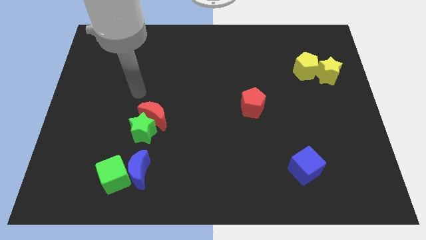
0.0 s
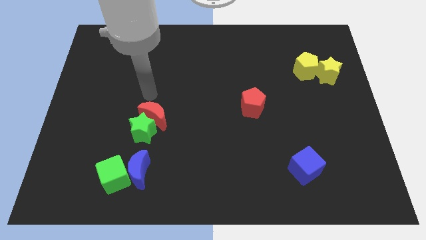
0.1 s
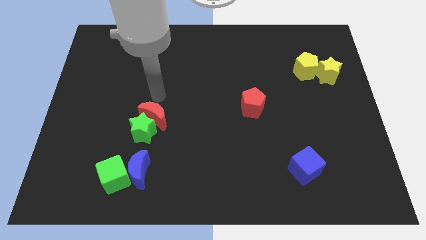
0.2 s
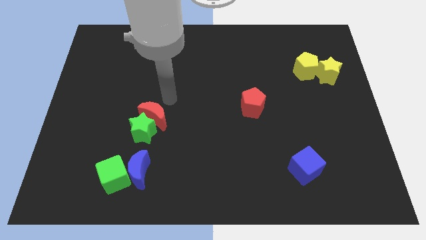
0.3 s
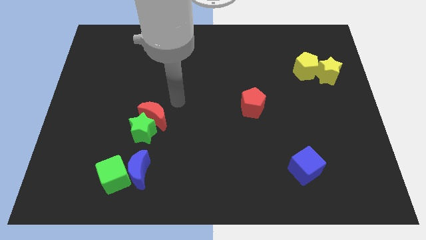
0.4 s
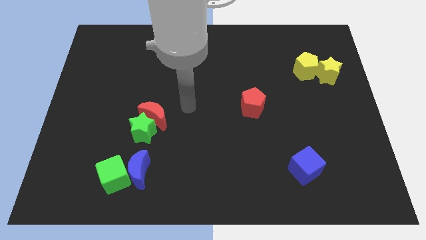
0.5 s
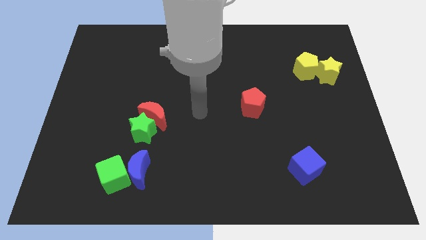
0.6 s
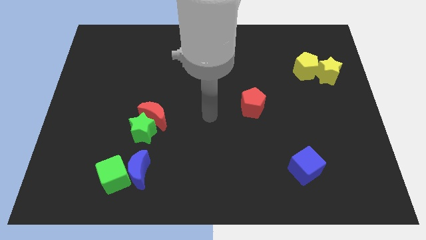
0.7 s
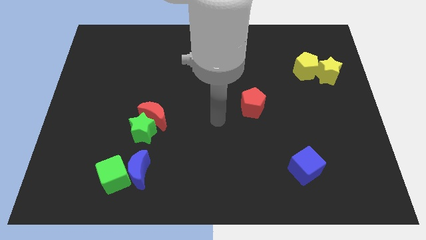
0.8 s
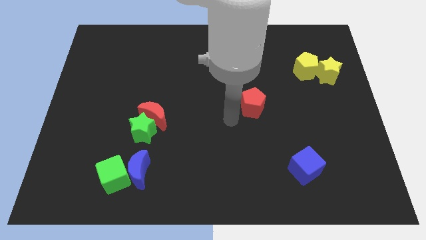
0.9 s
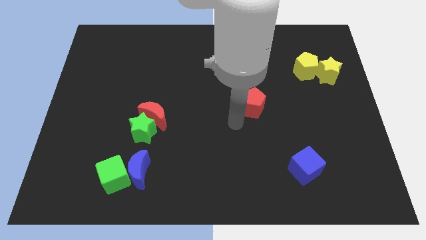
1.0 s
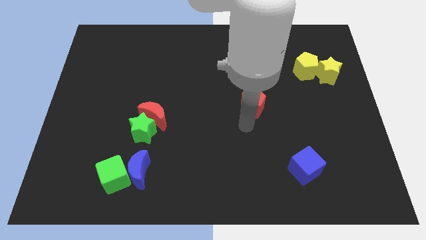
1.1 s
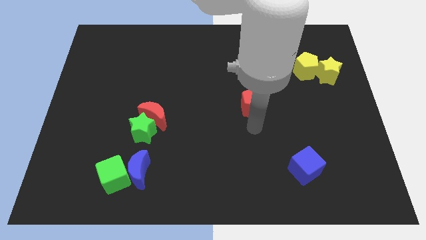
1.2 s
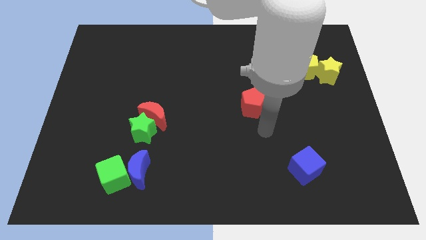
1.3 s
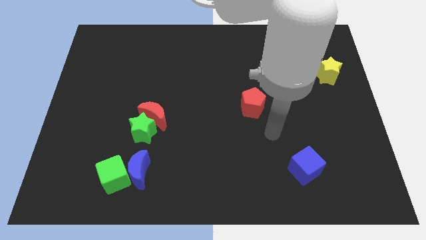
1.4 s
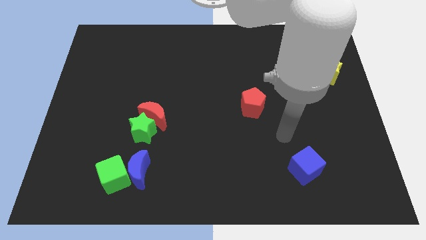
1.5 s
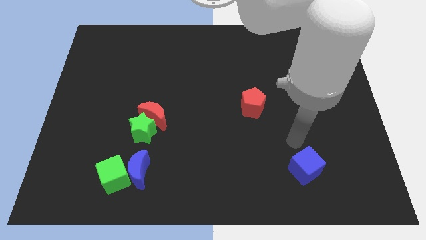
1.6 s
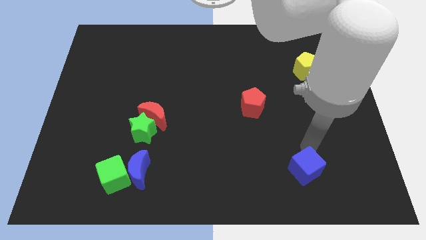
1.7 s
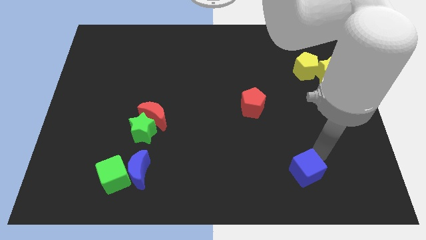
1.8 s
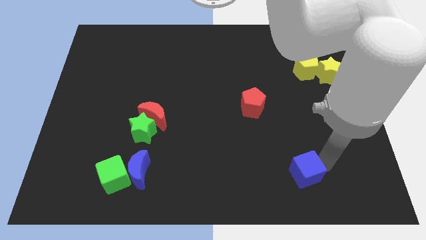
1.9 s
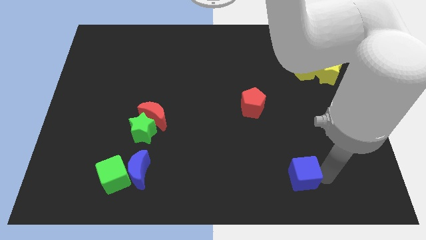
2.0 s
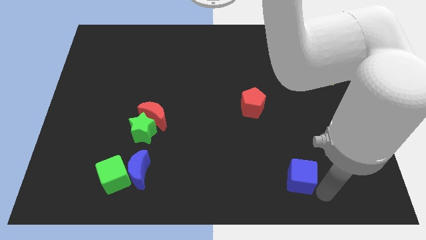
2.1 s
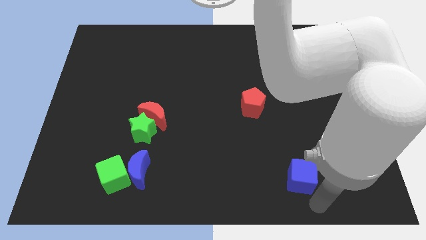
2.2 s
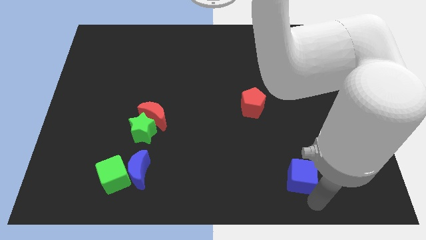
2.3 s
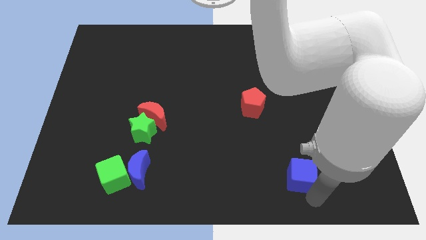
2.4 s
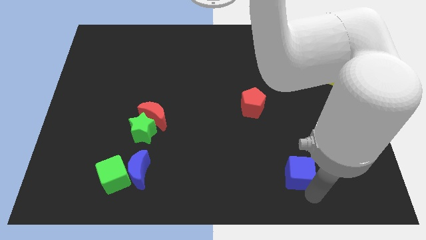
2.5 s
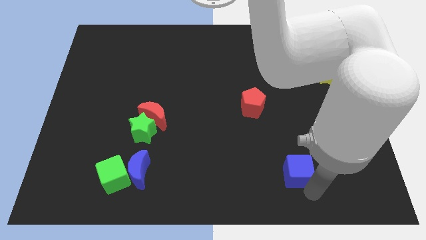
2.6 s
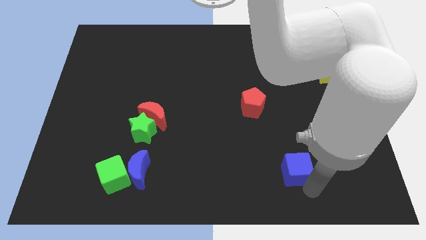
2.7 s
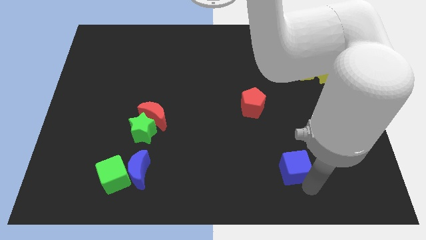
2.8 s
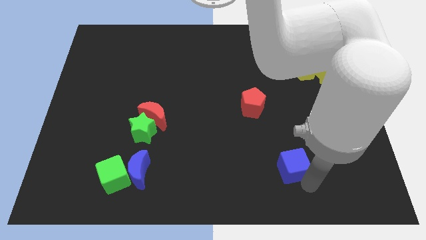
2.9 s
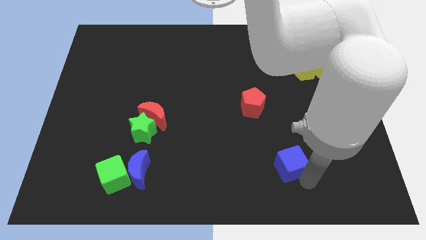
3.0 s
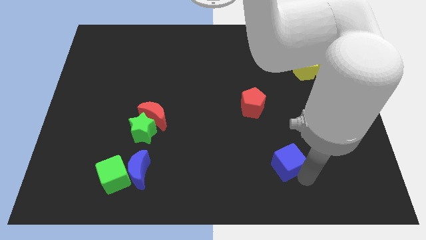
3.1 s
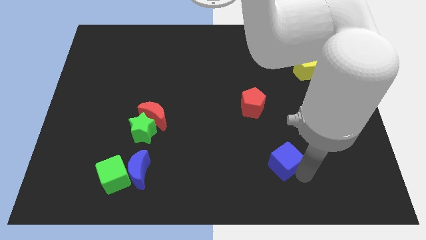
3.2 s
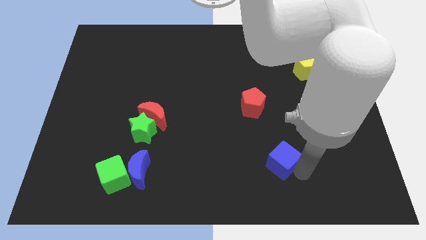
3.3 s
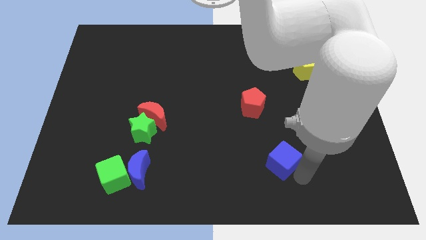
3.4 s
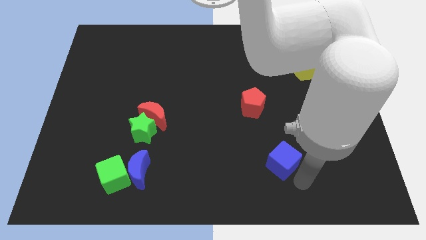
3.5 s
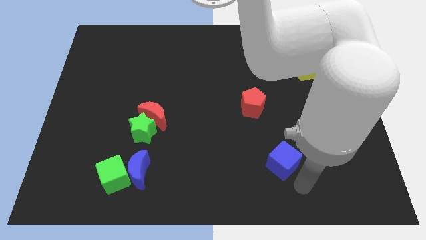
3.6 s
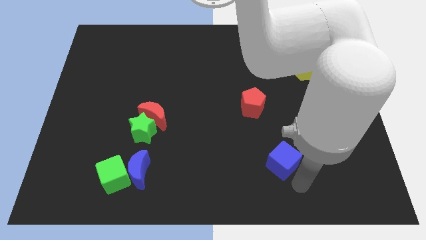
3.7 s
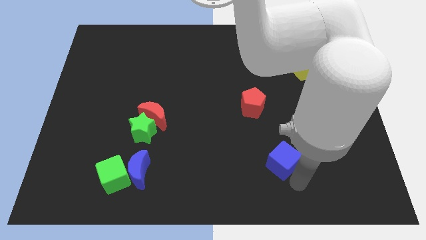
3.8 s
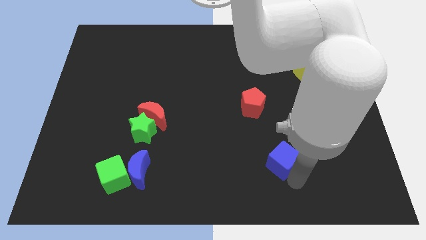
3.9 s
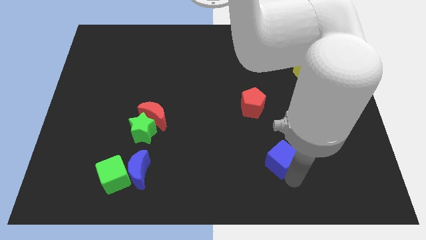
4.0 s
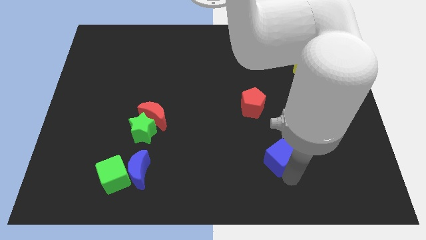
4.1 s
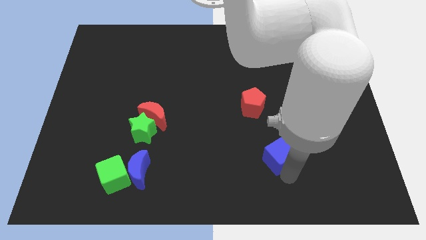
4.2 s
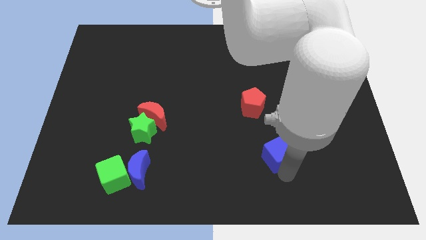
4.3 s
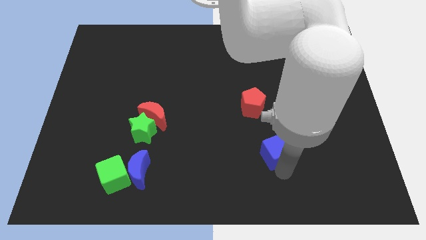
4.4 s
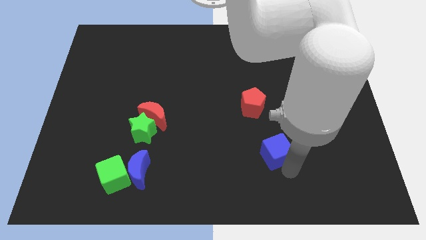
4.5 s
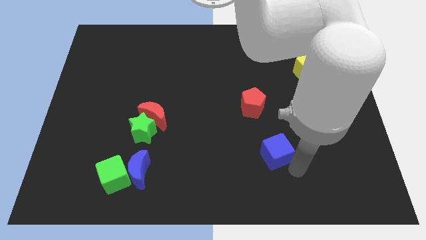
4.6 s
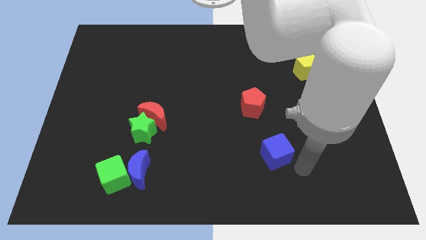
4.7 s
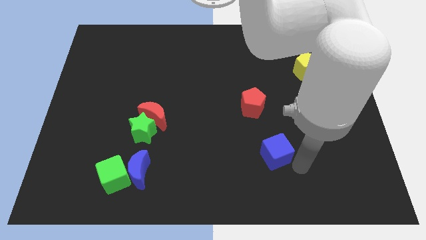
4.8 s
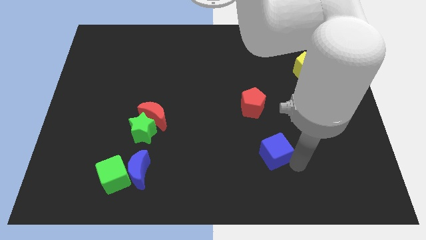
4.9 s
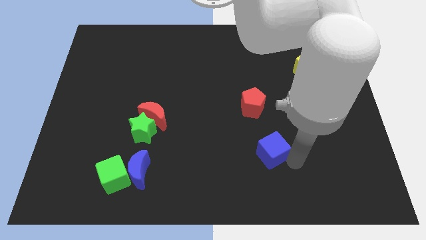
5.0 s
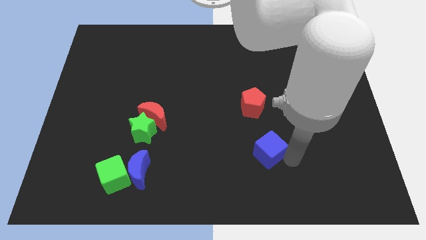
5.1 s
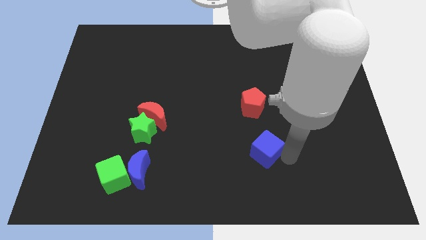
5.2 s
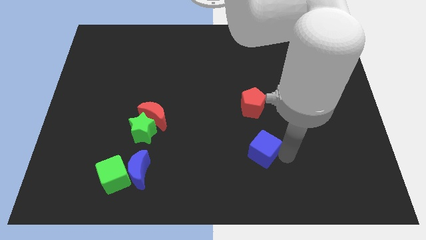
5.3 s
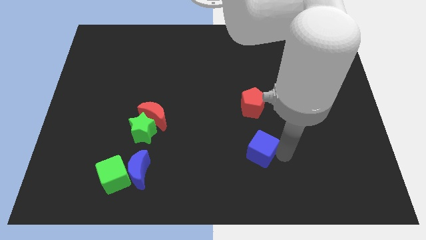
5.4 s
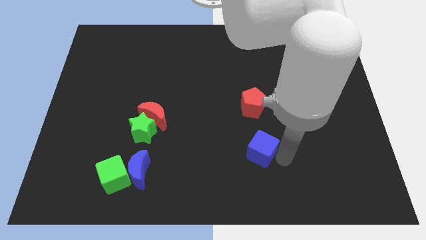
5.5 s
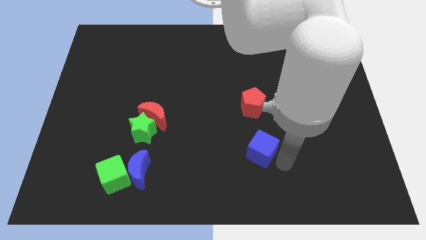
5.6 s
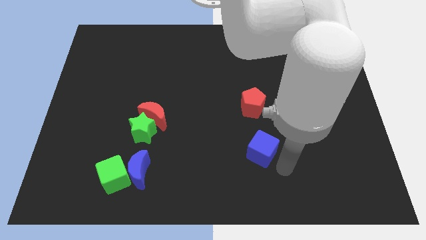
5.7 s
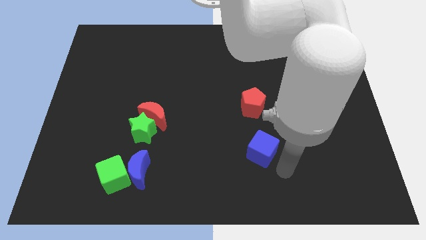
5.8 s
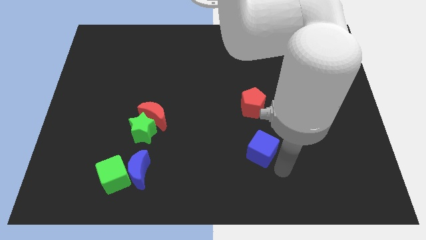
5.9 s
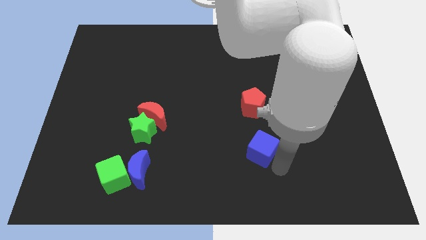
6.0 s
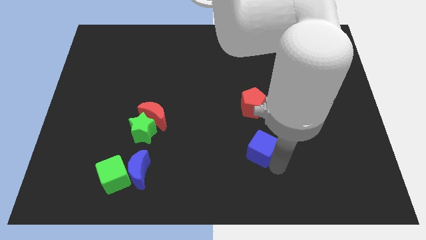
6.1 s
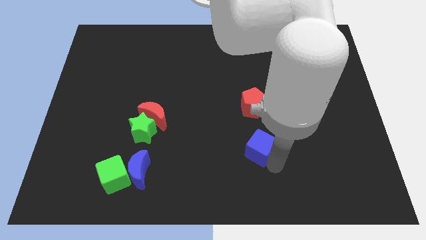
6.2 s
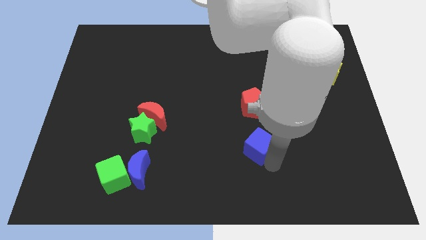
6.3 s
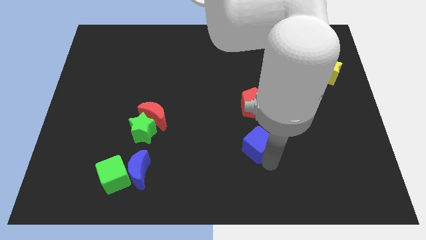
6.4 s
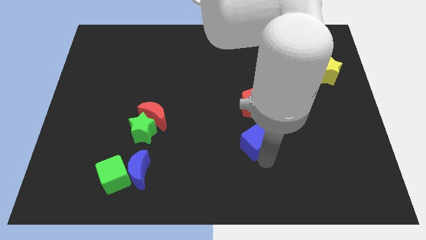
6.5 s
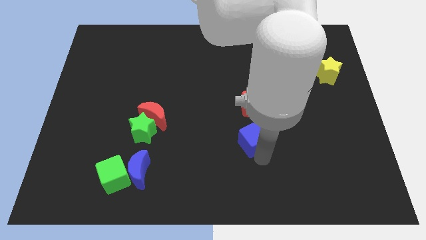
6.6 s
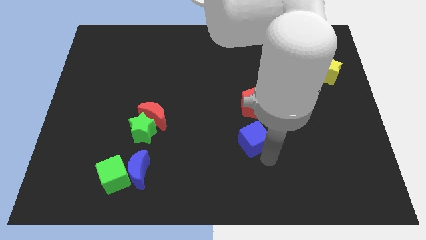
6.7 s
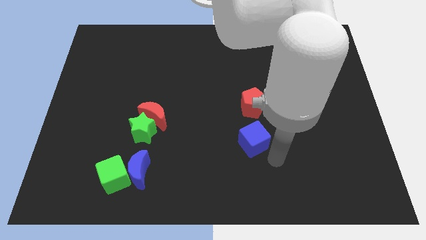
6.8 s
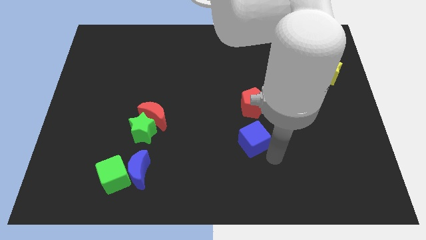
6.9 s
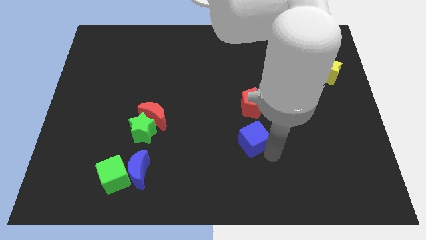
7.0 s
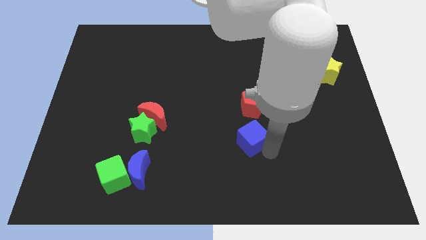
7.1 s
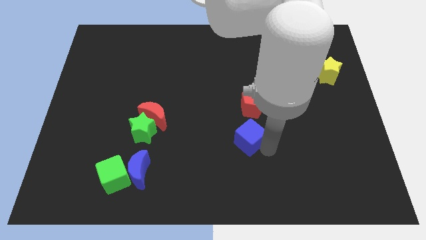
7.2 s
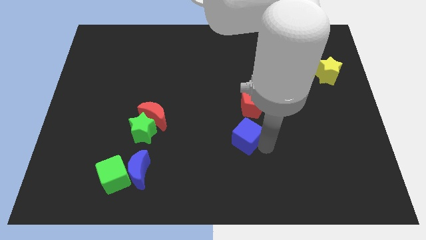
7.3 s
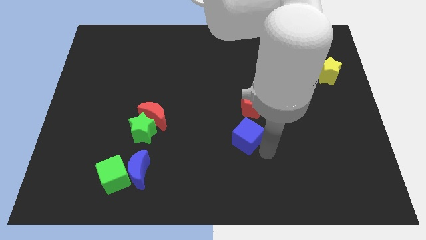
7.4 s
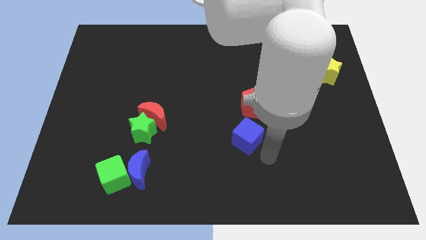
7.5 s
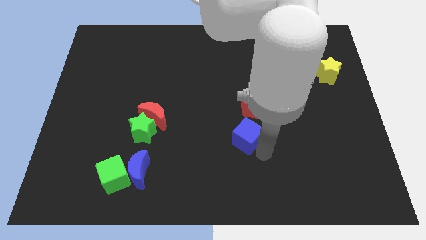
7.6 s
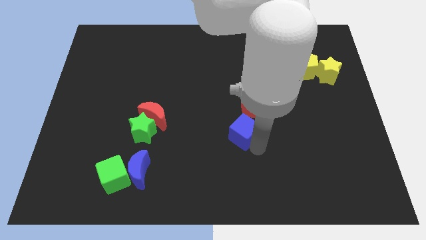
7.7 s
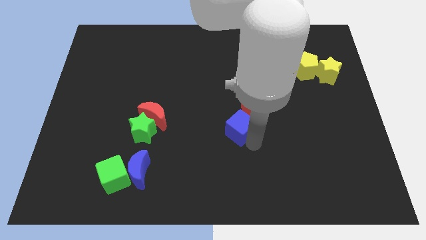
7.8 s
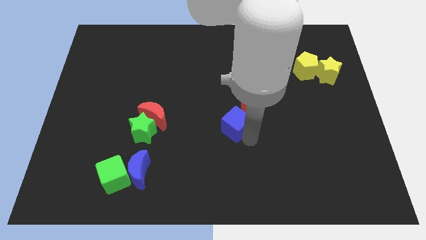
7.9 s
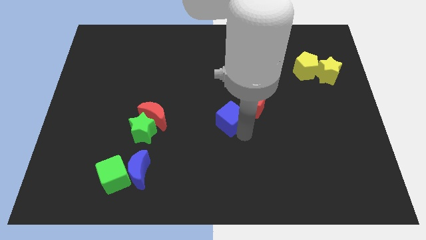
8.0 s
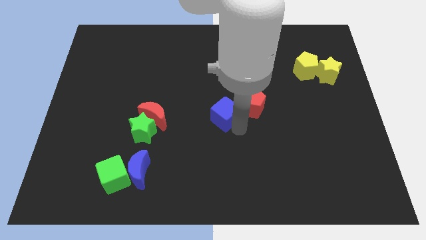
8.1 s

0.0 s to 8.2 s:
move the blue cube diagonally up and left
